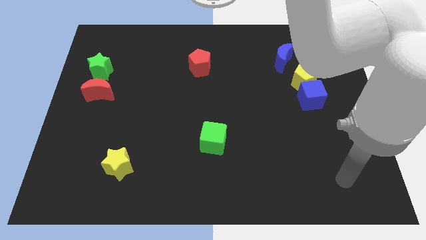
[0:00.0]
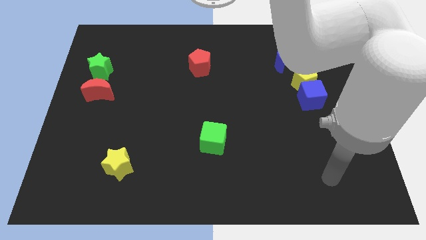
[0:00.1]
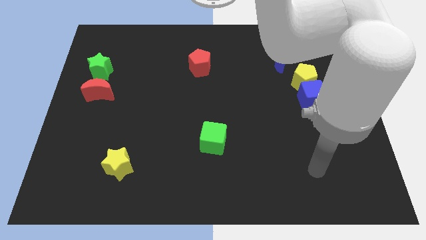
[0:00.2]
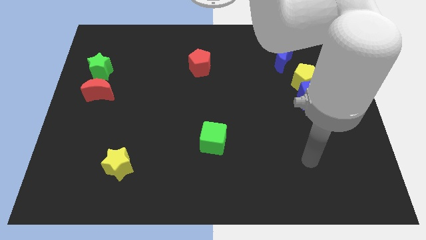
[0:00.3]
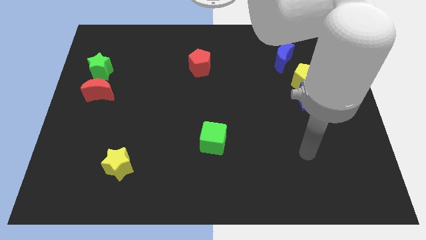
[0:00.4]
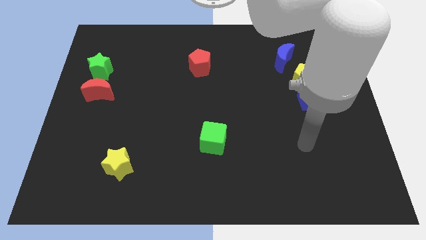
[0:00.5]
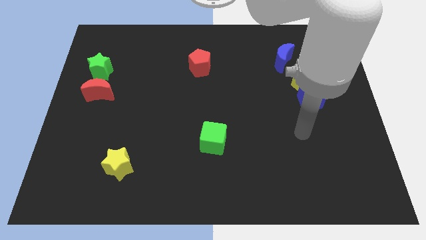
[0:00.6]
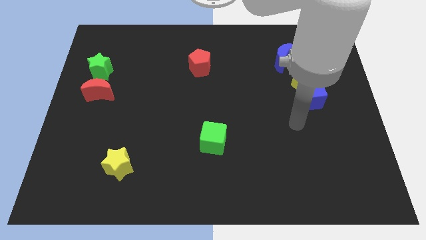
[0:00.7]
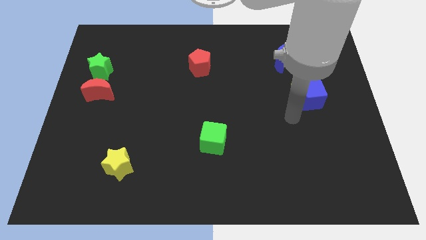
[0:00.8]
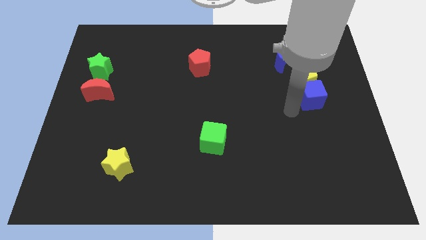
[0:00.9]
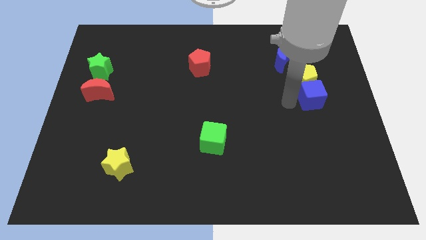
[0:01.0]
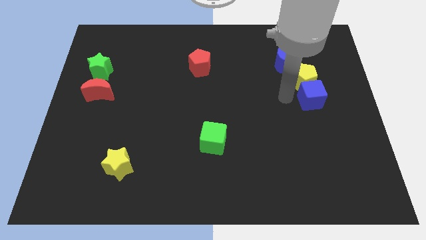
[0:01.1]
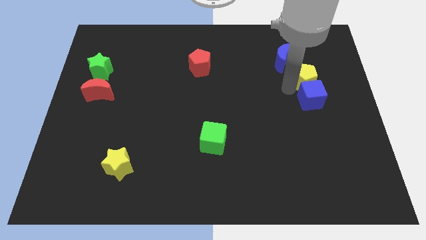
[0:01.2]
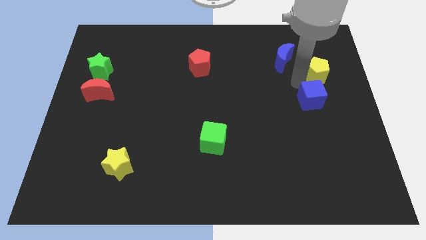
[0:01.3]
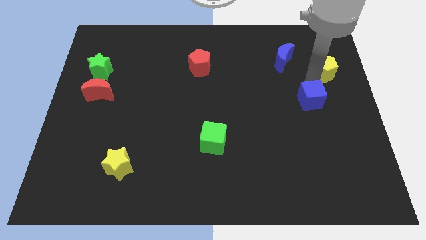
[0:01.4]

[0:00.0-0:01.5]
move the blue cube away from the yellow pentagon

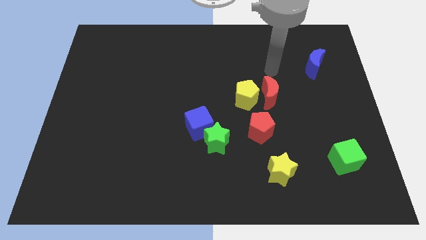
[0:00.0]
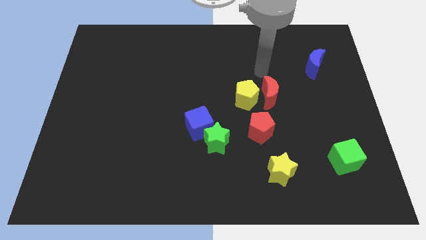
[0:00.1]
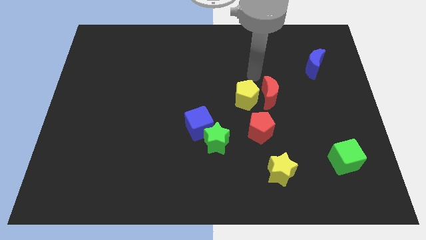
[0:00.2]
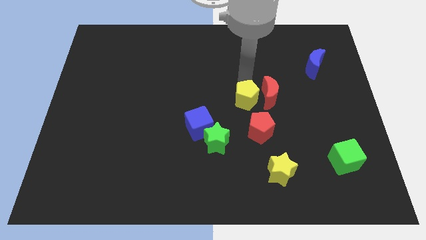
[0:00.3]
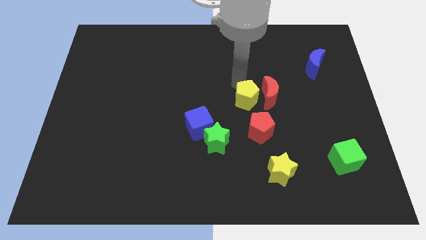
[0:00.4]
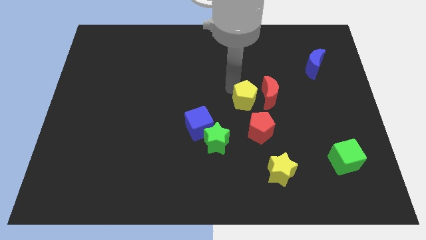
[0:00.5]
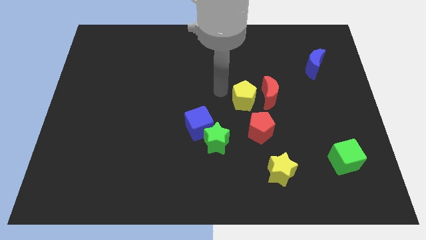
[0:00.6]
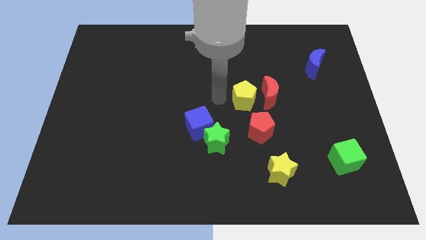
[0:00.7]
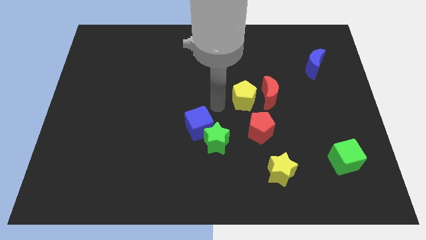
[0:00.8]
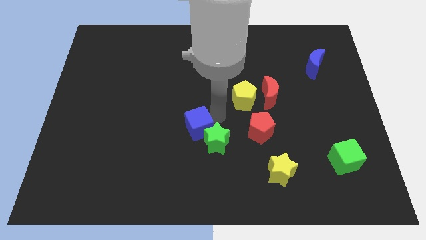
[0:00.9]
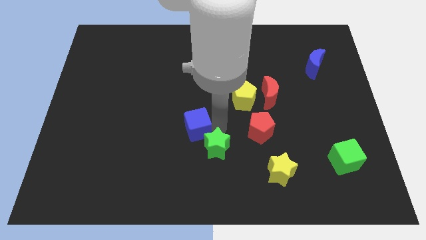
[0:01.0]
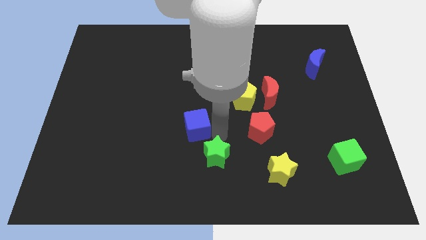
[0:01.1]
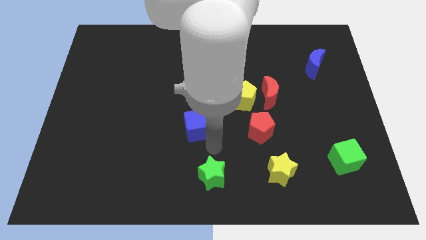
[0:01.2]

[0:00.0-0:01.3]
move the blue cube away from the green star

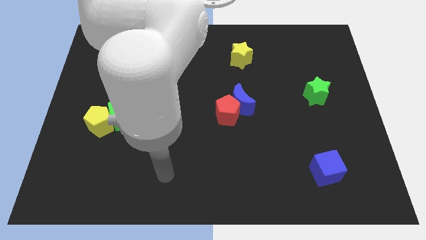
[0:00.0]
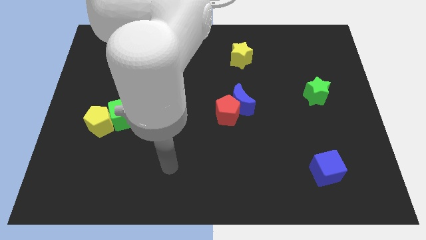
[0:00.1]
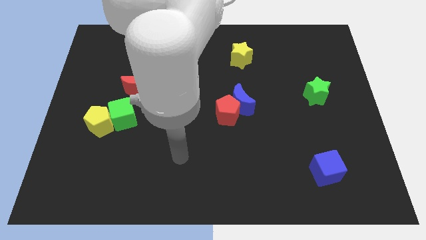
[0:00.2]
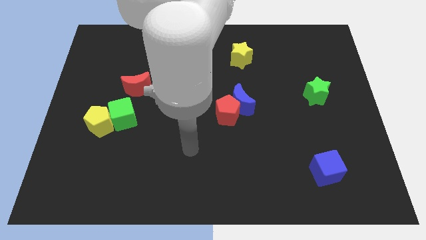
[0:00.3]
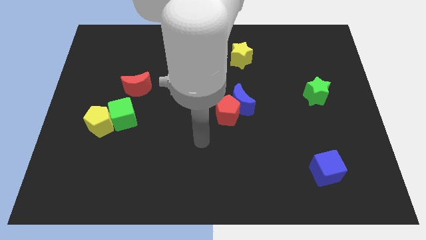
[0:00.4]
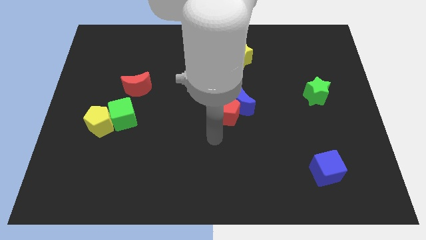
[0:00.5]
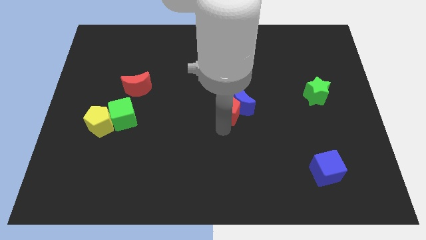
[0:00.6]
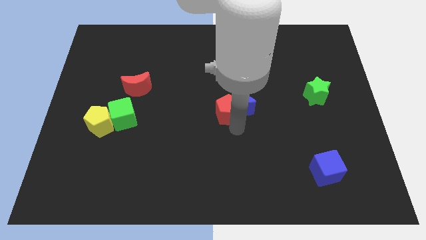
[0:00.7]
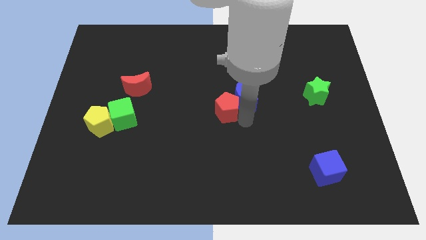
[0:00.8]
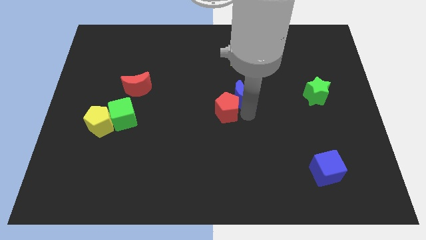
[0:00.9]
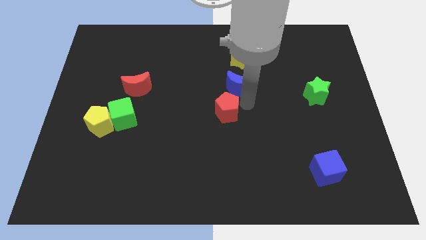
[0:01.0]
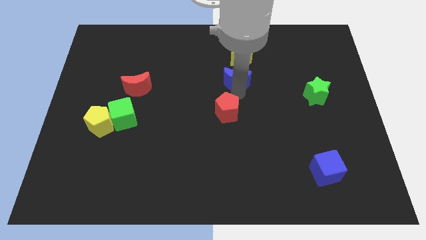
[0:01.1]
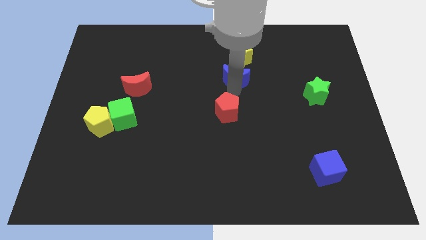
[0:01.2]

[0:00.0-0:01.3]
move the red pentagon away from the blue moon

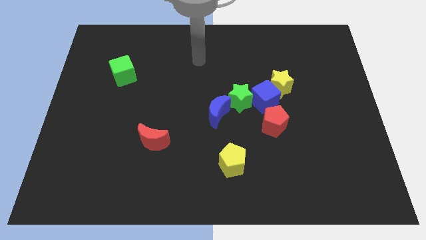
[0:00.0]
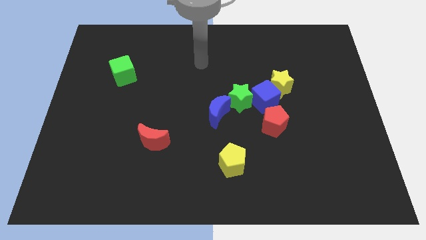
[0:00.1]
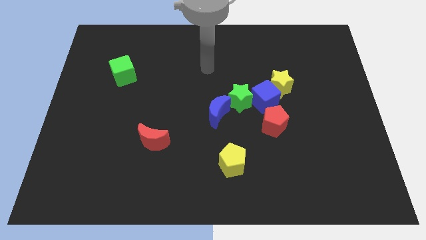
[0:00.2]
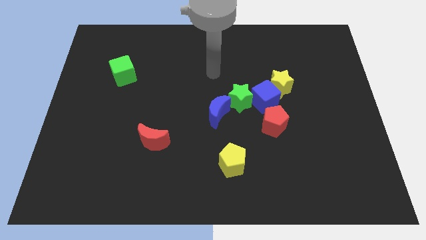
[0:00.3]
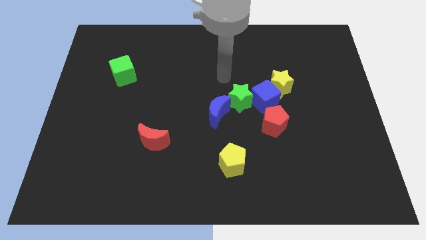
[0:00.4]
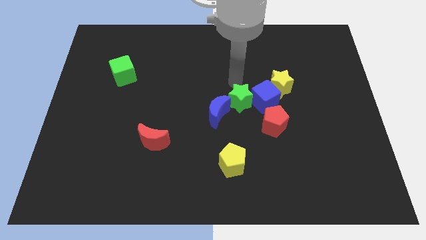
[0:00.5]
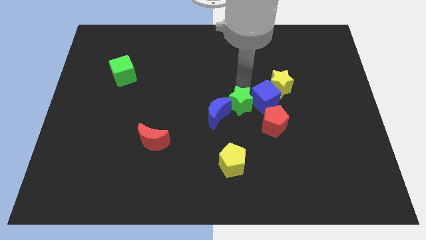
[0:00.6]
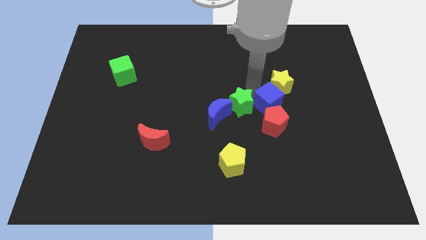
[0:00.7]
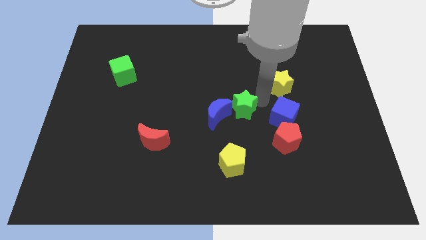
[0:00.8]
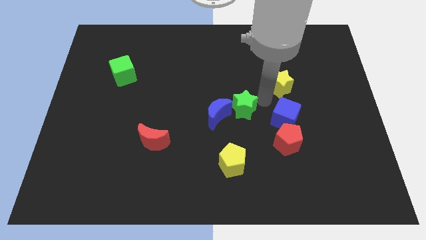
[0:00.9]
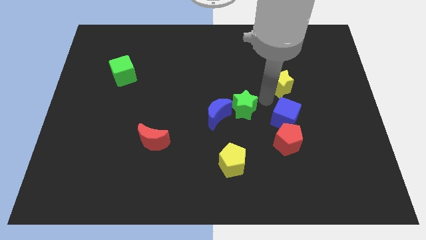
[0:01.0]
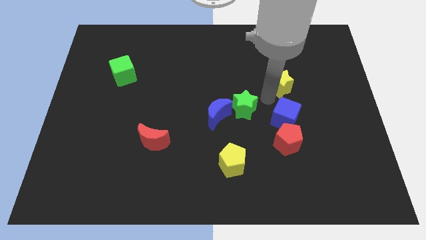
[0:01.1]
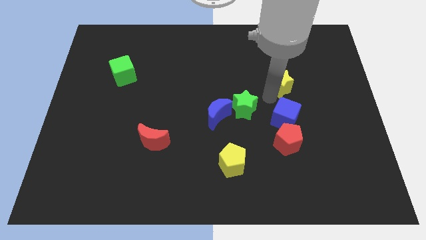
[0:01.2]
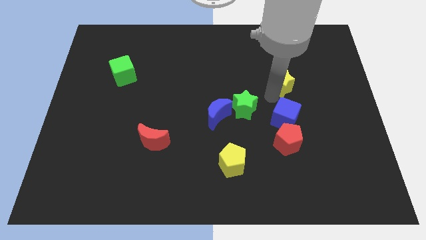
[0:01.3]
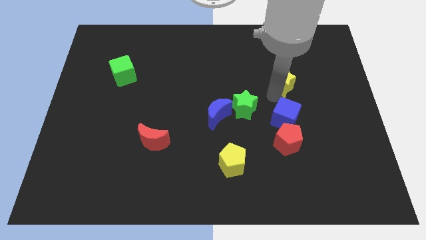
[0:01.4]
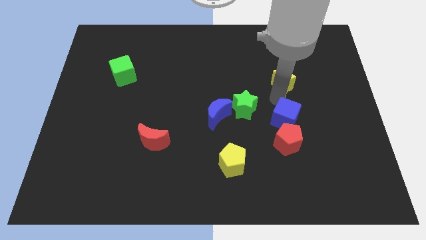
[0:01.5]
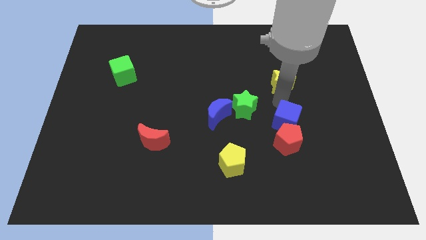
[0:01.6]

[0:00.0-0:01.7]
separate the yellow star from the blue cube

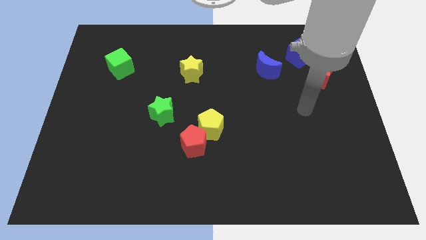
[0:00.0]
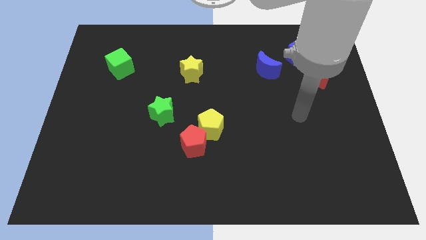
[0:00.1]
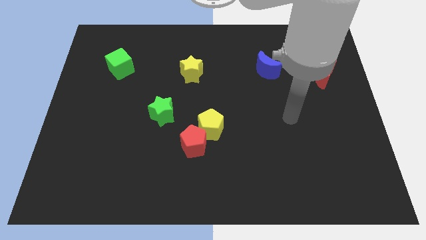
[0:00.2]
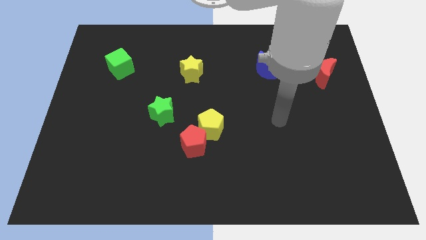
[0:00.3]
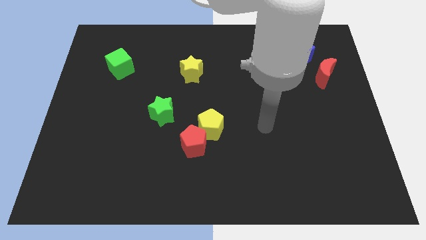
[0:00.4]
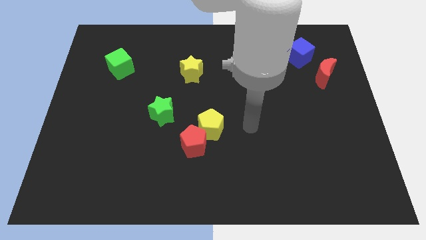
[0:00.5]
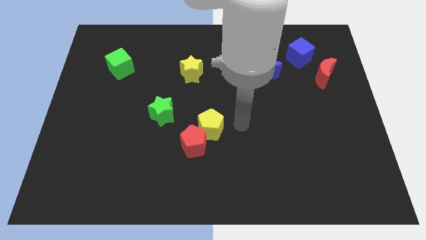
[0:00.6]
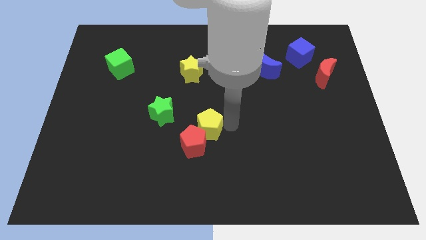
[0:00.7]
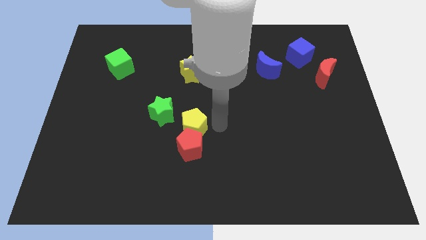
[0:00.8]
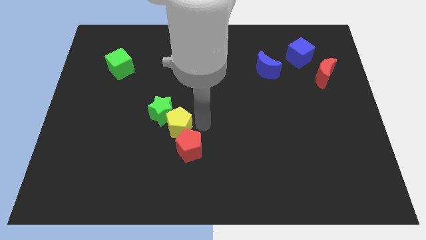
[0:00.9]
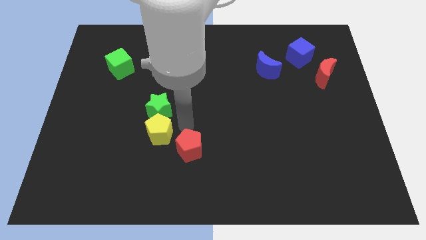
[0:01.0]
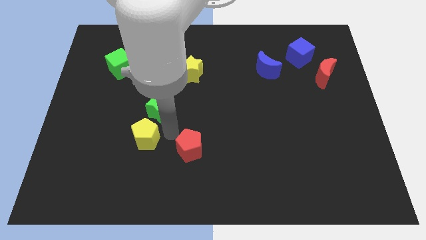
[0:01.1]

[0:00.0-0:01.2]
pull the red pentagon apart from the yellow pentagon

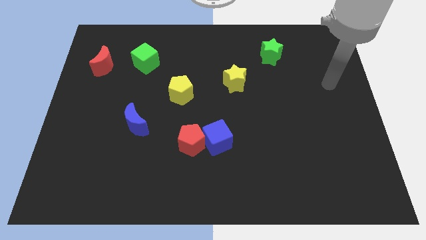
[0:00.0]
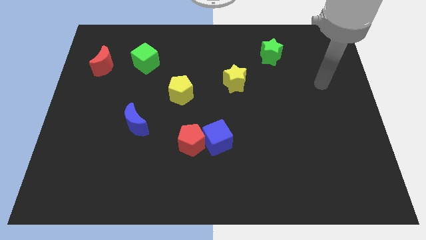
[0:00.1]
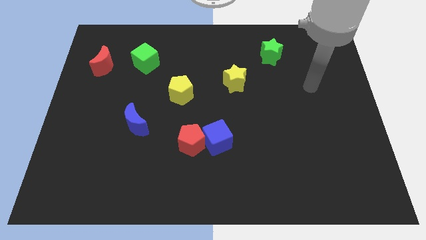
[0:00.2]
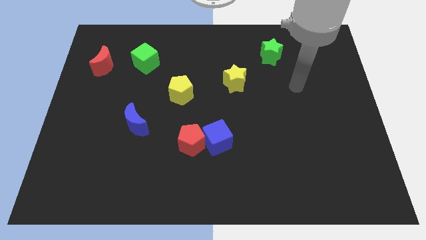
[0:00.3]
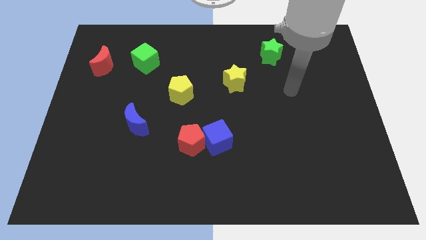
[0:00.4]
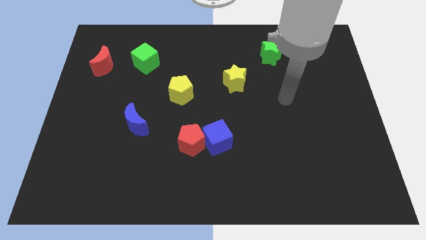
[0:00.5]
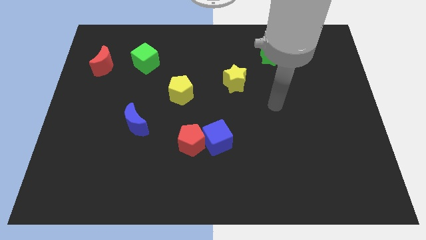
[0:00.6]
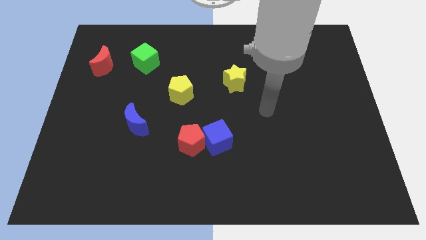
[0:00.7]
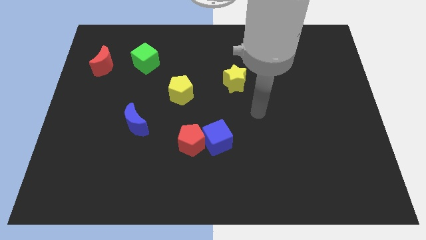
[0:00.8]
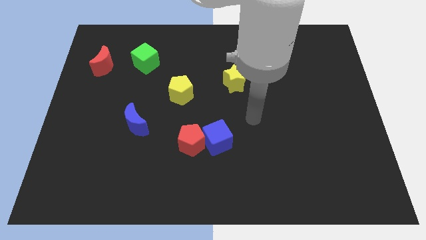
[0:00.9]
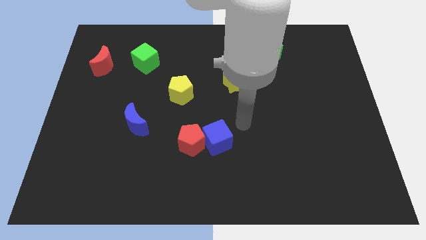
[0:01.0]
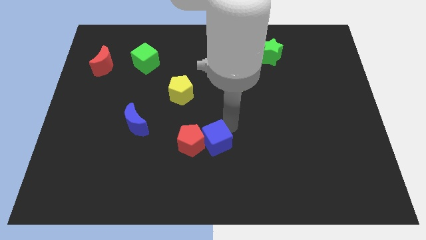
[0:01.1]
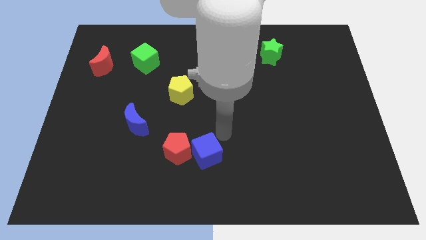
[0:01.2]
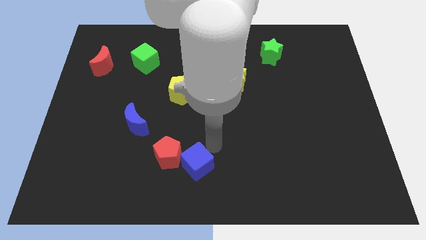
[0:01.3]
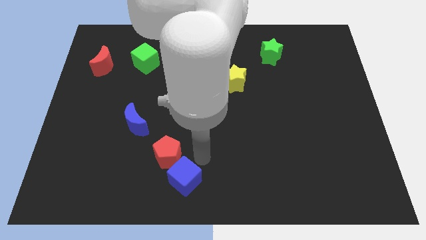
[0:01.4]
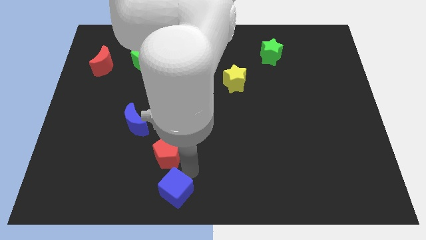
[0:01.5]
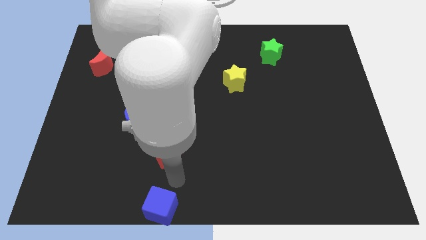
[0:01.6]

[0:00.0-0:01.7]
separate the red pentagon from the blue cube

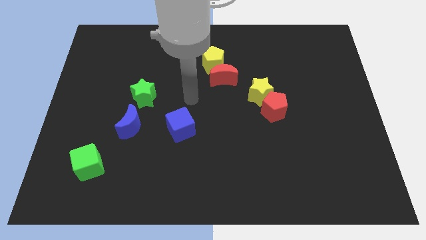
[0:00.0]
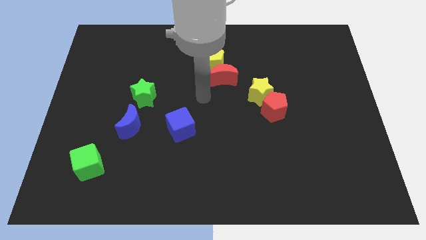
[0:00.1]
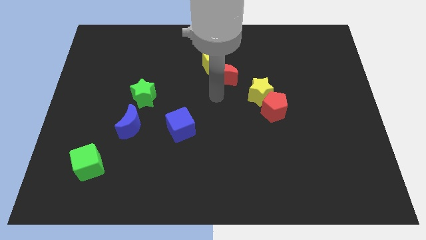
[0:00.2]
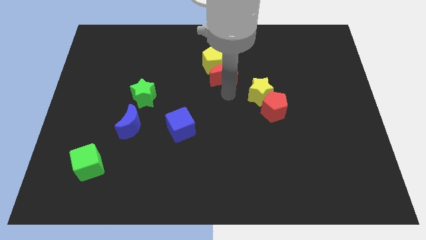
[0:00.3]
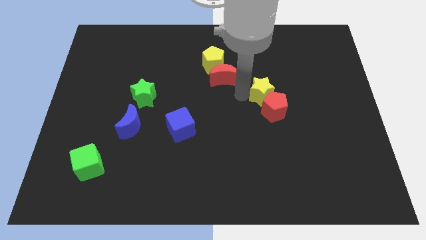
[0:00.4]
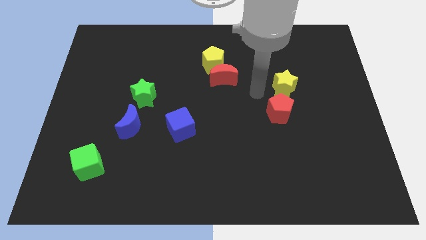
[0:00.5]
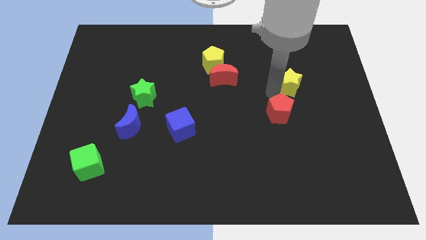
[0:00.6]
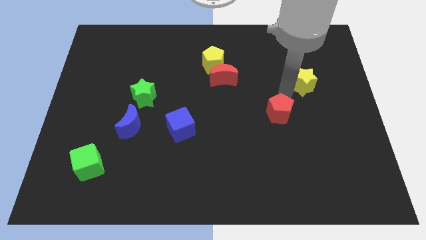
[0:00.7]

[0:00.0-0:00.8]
separate the red pentagon from the yellow star
